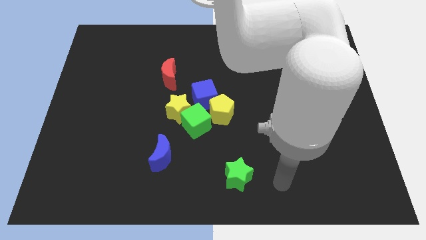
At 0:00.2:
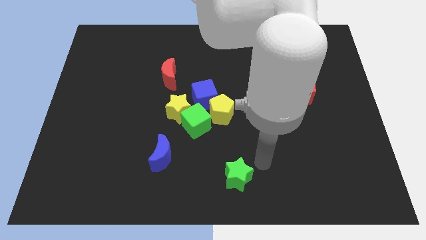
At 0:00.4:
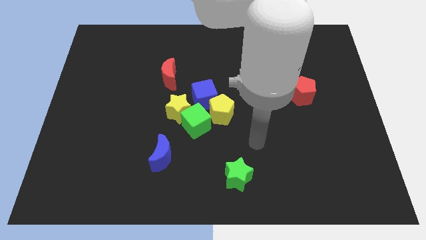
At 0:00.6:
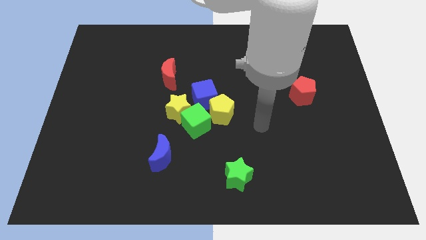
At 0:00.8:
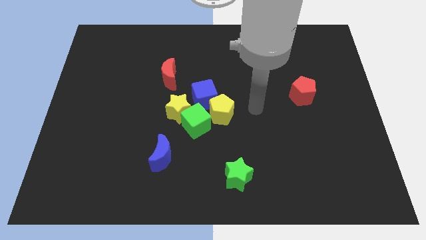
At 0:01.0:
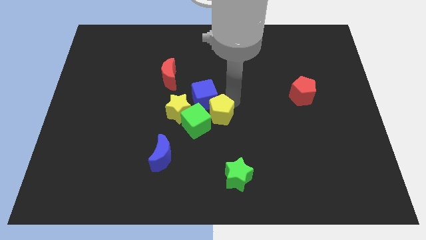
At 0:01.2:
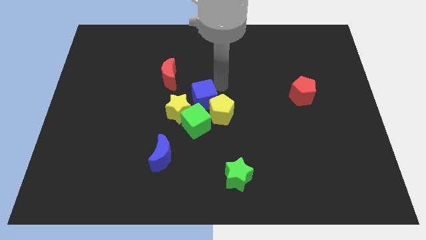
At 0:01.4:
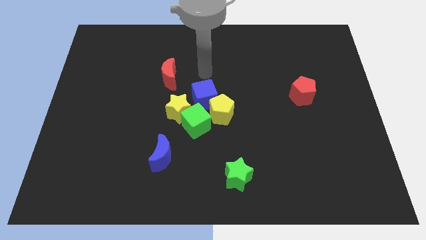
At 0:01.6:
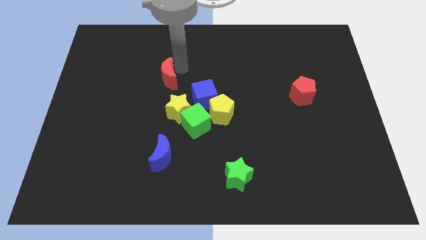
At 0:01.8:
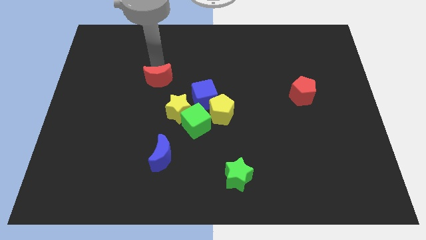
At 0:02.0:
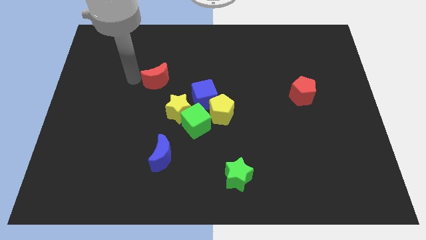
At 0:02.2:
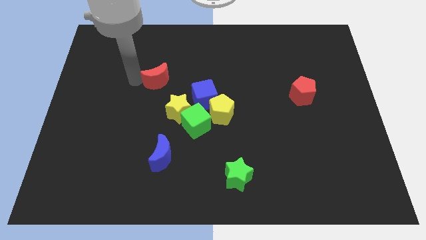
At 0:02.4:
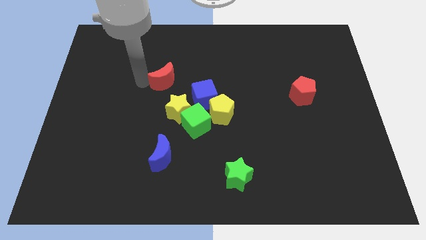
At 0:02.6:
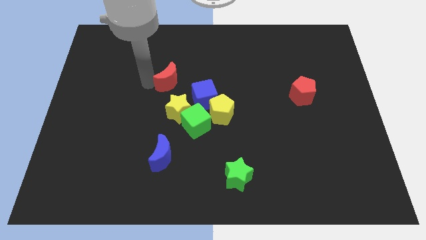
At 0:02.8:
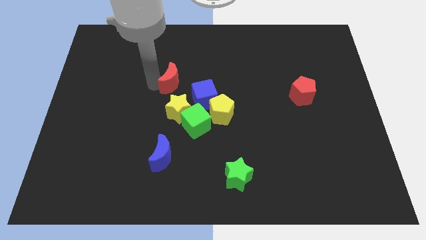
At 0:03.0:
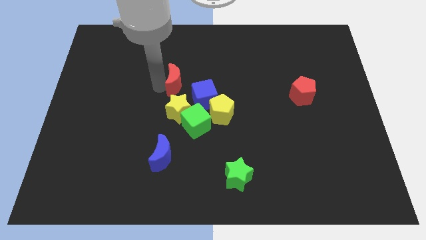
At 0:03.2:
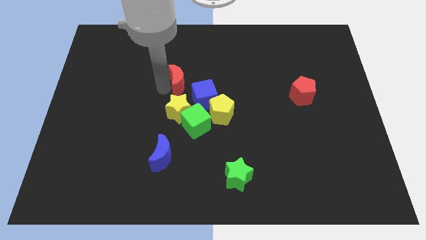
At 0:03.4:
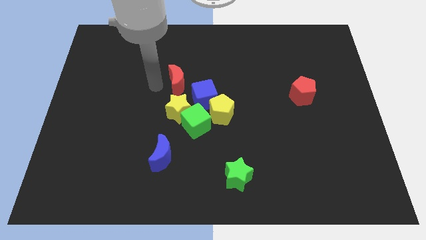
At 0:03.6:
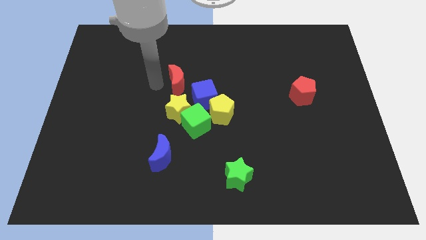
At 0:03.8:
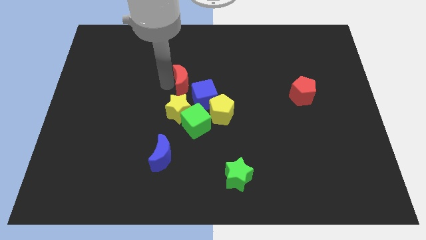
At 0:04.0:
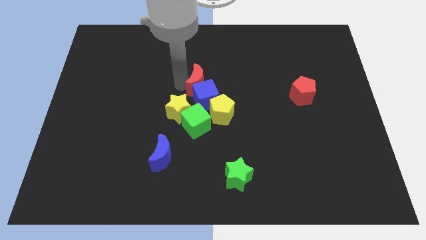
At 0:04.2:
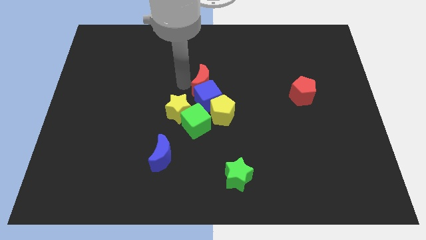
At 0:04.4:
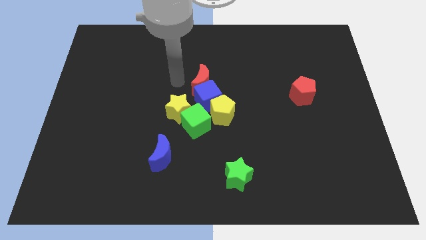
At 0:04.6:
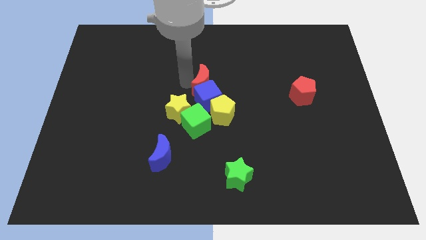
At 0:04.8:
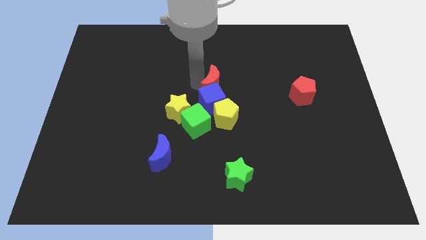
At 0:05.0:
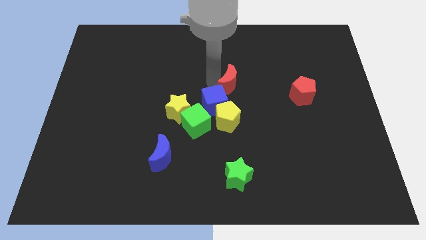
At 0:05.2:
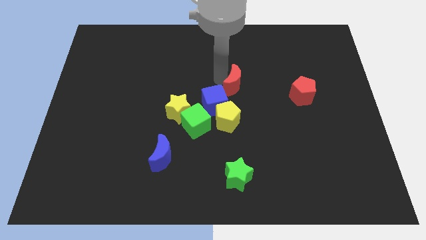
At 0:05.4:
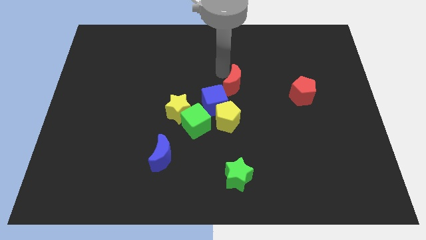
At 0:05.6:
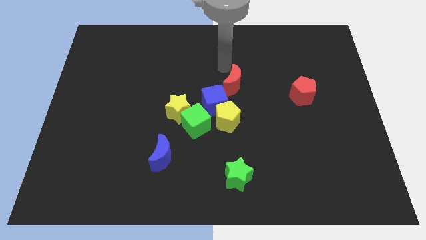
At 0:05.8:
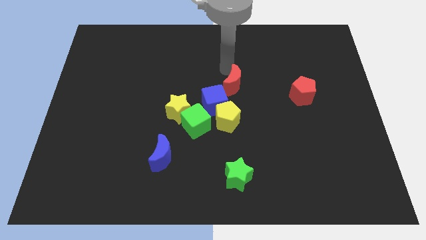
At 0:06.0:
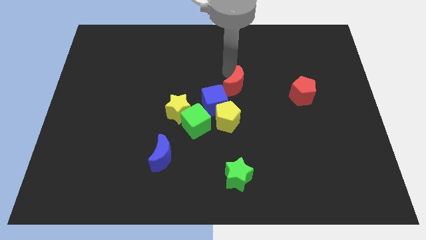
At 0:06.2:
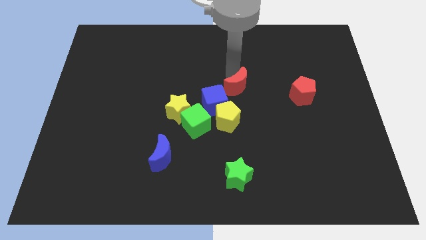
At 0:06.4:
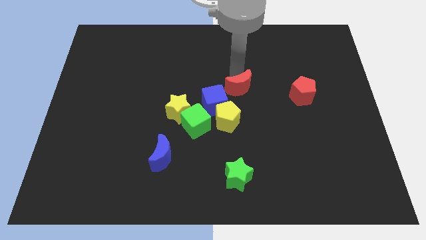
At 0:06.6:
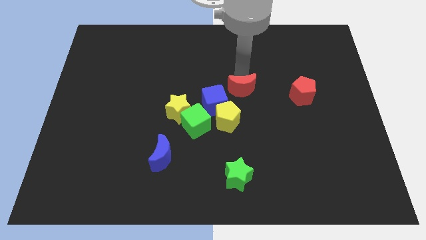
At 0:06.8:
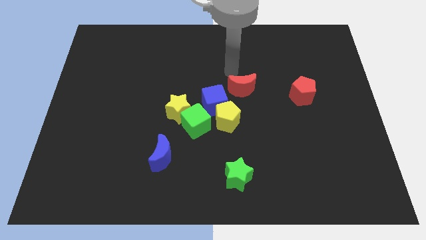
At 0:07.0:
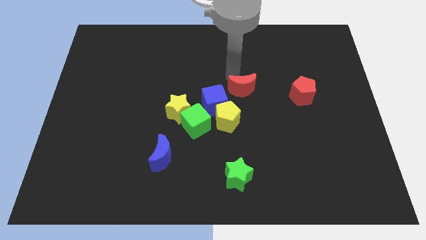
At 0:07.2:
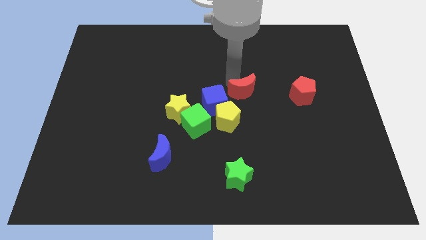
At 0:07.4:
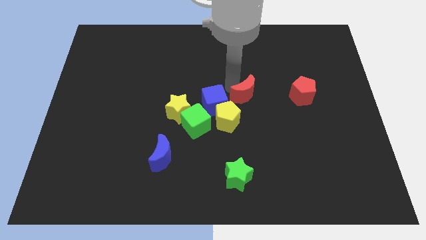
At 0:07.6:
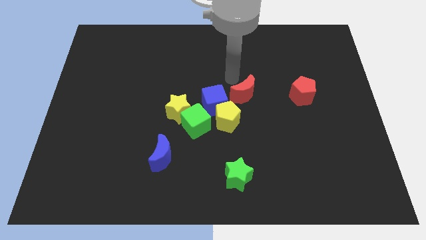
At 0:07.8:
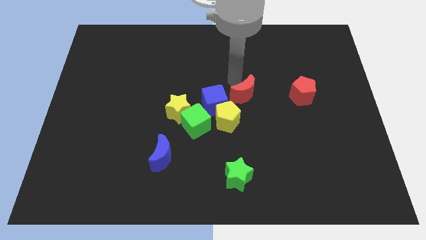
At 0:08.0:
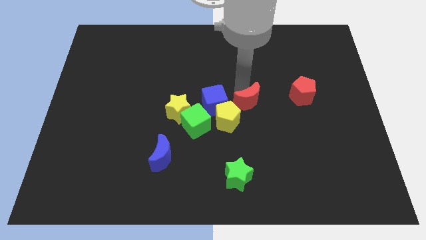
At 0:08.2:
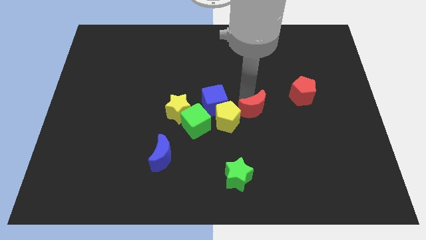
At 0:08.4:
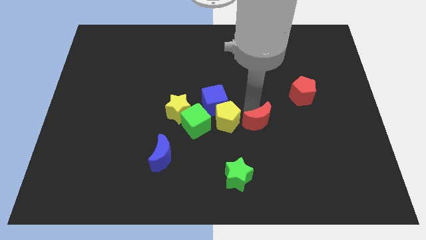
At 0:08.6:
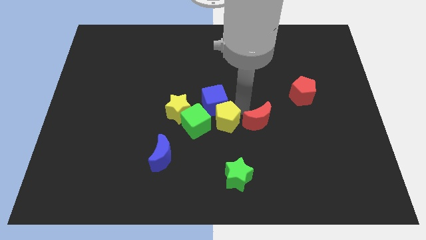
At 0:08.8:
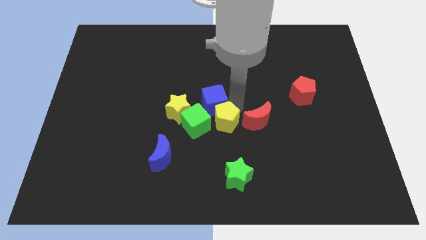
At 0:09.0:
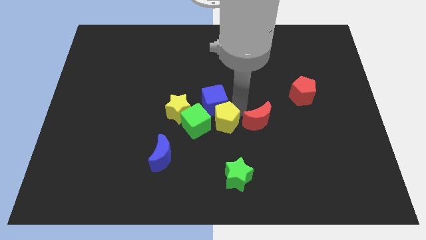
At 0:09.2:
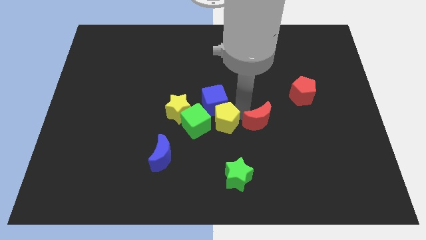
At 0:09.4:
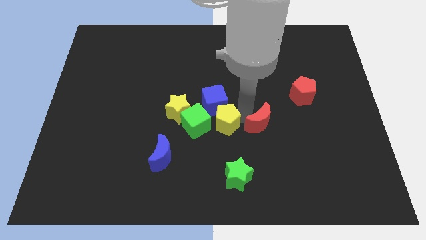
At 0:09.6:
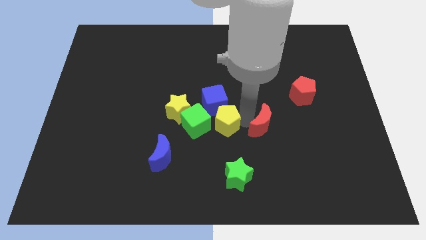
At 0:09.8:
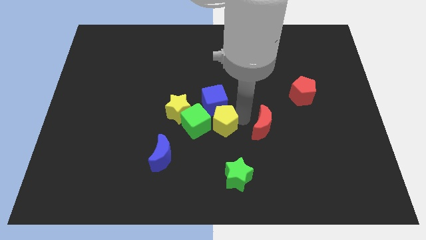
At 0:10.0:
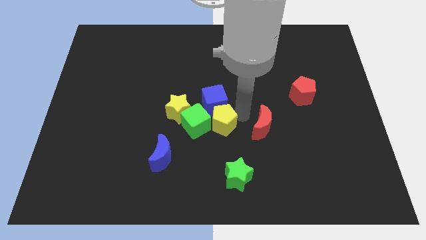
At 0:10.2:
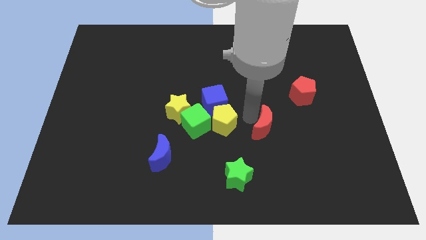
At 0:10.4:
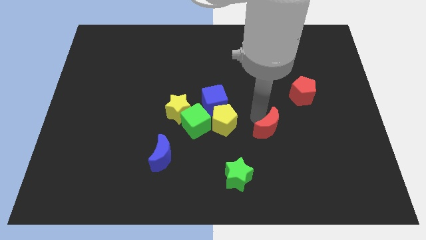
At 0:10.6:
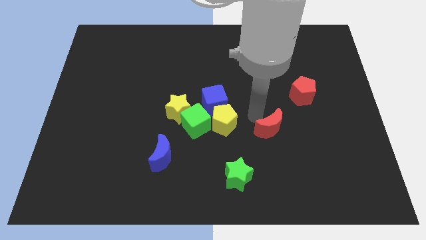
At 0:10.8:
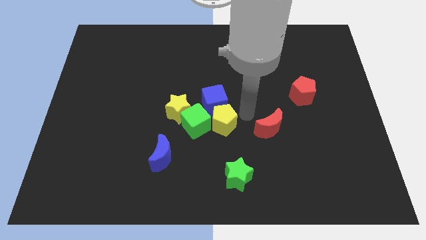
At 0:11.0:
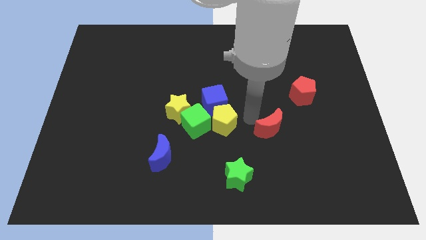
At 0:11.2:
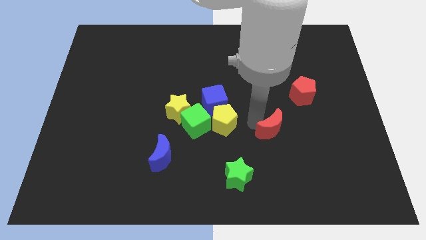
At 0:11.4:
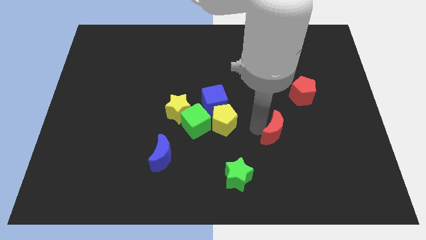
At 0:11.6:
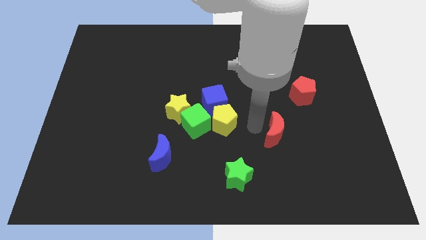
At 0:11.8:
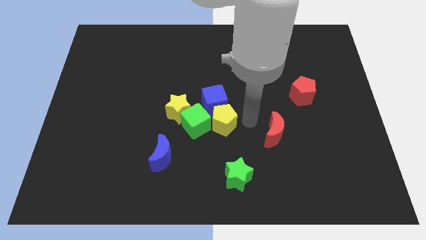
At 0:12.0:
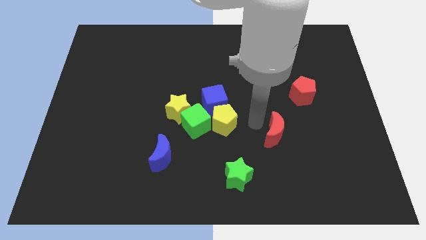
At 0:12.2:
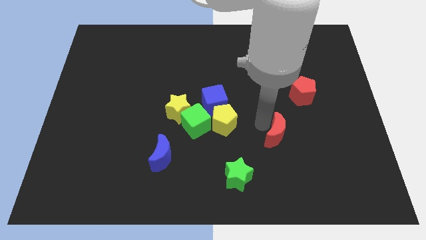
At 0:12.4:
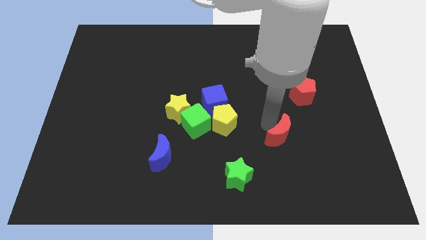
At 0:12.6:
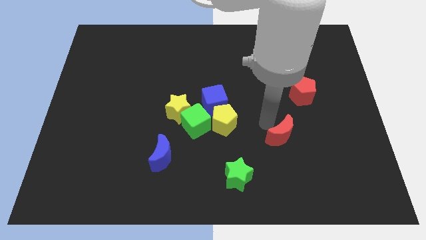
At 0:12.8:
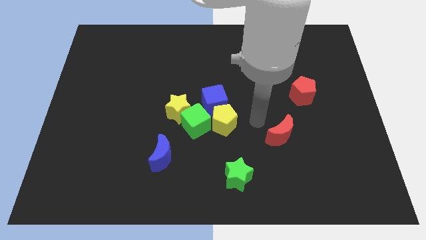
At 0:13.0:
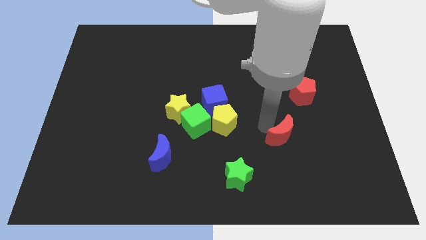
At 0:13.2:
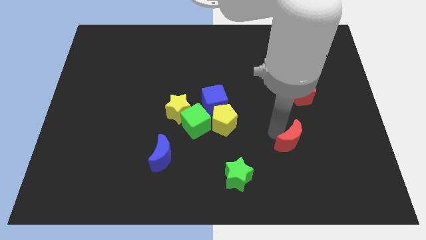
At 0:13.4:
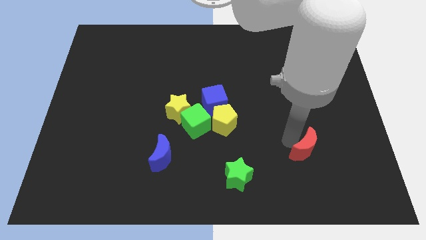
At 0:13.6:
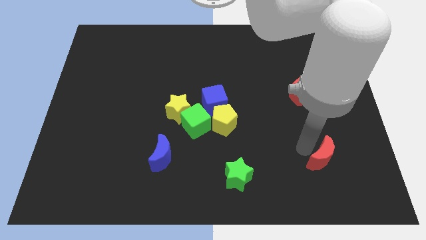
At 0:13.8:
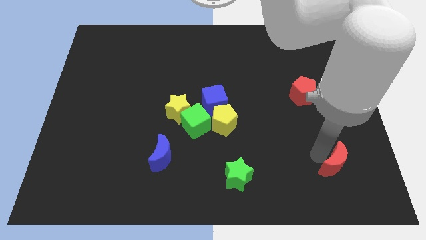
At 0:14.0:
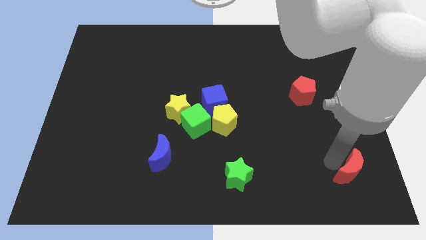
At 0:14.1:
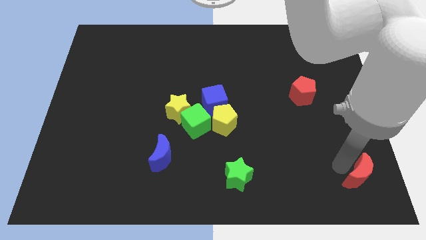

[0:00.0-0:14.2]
push the red moon to the lower right corner
